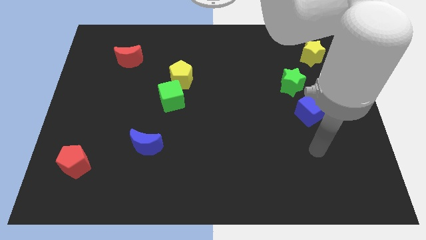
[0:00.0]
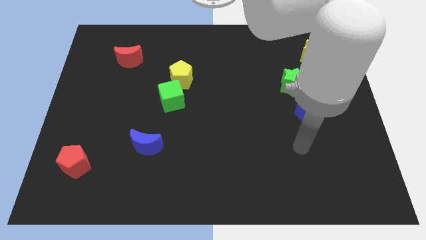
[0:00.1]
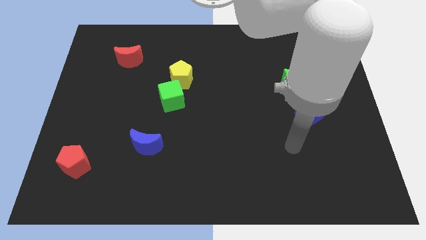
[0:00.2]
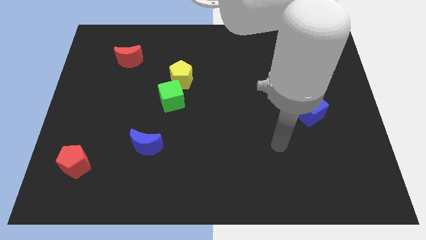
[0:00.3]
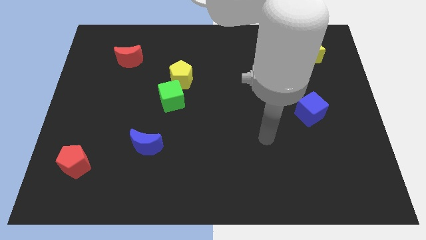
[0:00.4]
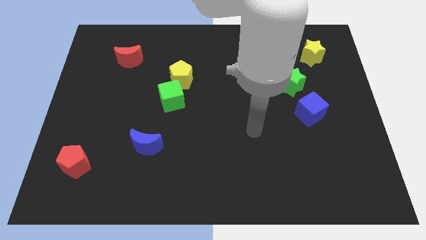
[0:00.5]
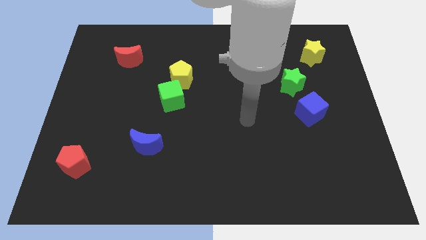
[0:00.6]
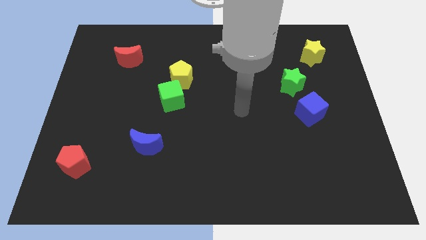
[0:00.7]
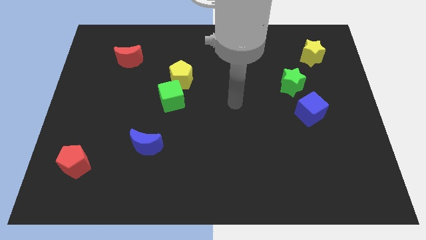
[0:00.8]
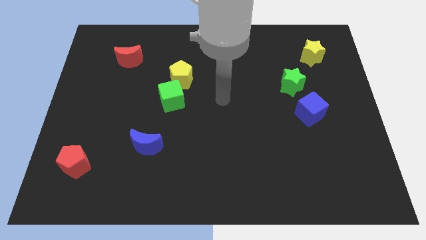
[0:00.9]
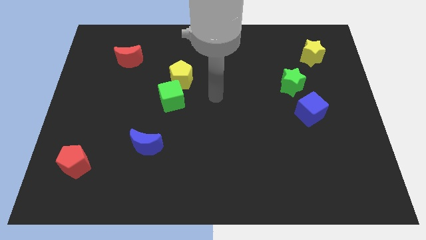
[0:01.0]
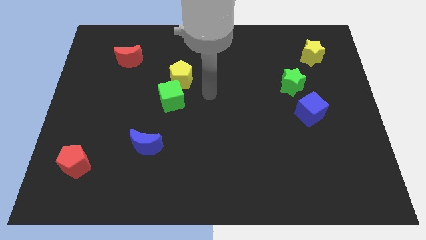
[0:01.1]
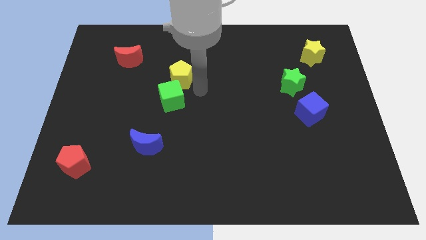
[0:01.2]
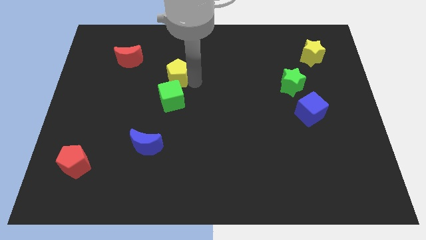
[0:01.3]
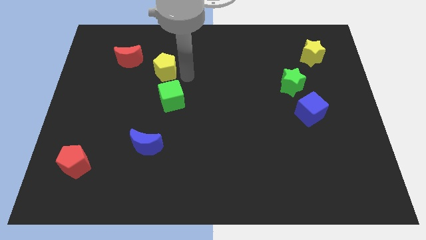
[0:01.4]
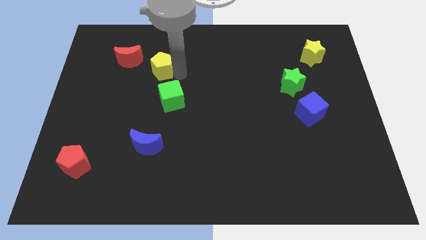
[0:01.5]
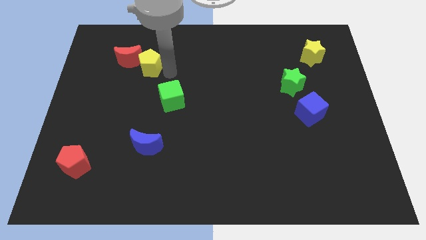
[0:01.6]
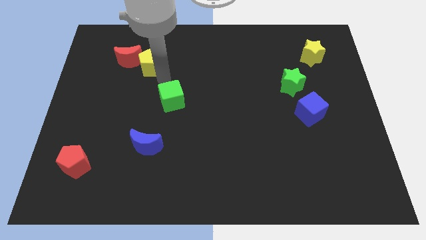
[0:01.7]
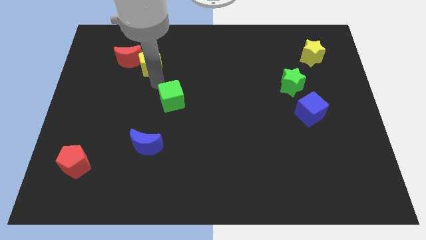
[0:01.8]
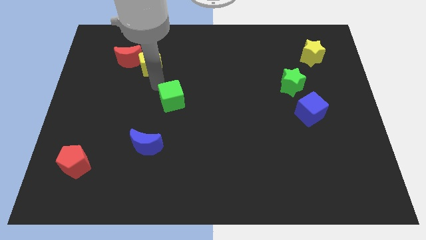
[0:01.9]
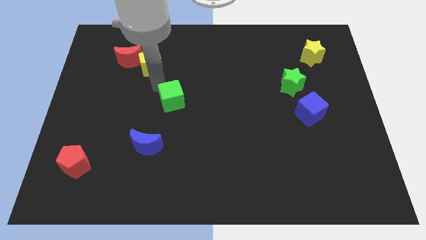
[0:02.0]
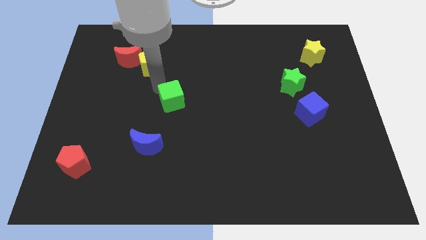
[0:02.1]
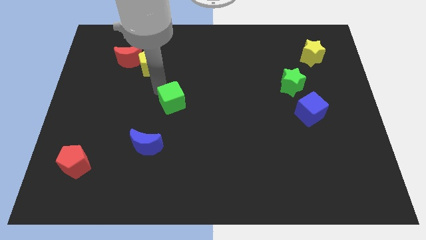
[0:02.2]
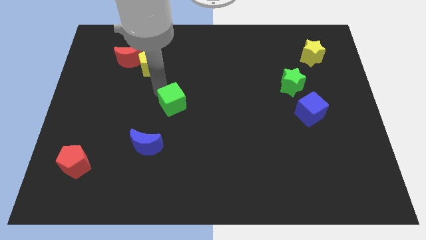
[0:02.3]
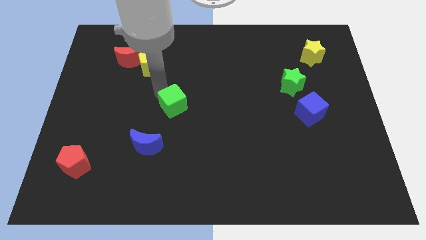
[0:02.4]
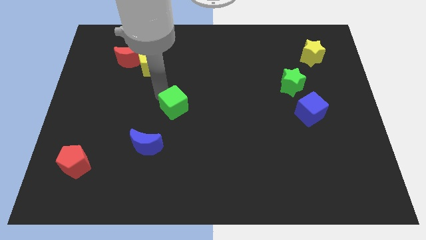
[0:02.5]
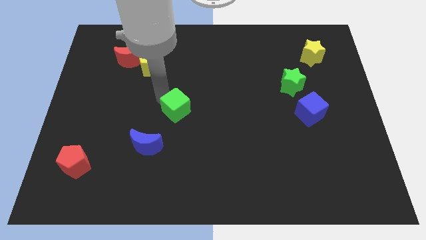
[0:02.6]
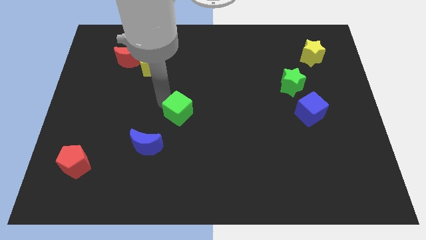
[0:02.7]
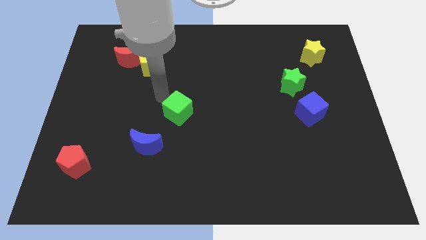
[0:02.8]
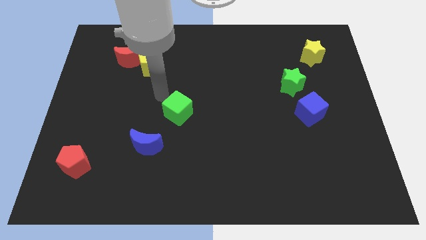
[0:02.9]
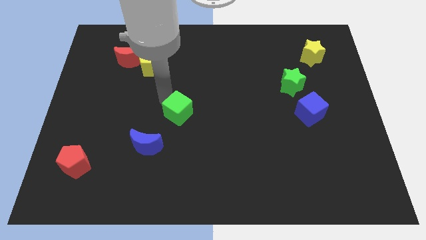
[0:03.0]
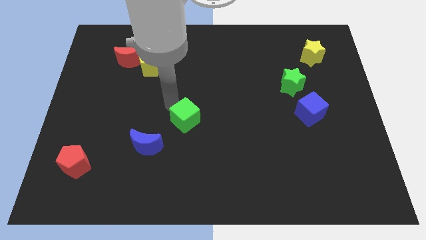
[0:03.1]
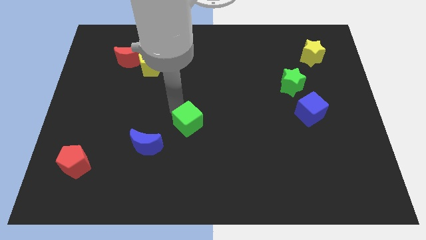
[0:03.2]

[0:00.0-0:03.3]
move the green cube a bit downwards and to the right diagonally

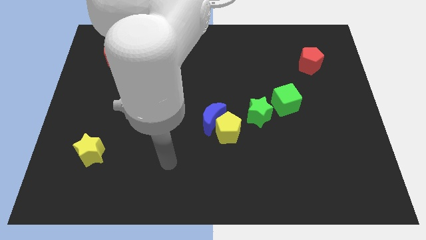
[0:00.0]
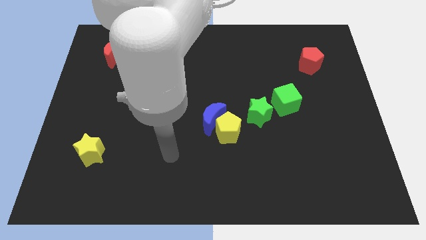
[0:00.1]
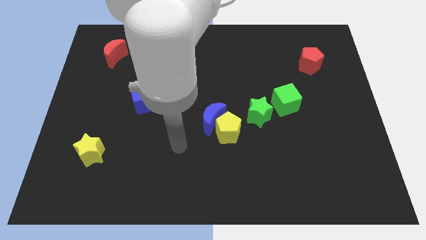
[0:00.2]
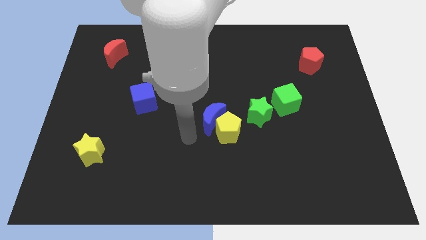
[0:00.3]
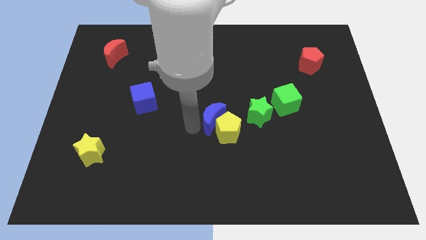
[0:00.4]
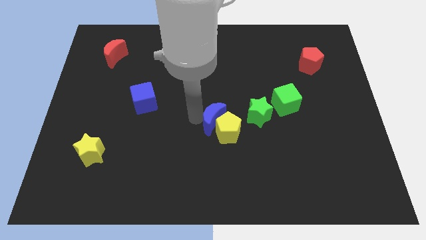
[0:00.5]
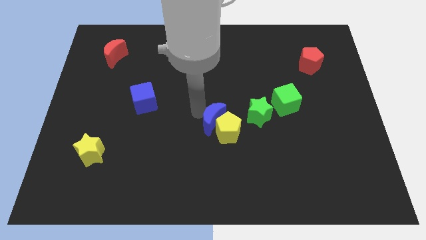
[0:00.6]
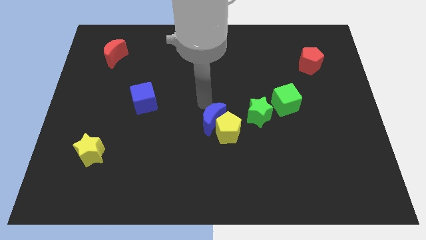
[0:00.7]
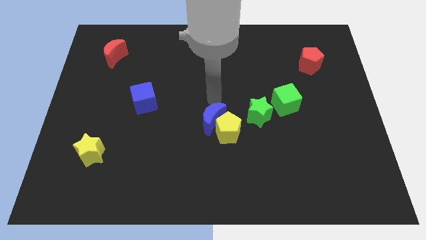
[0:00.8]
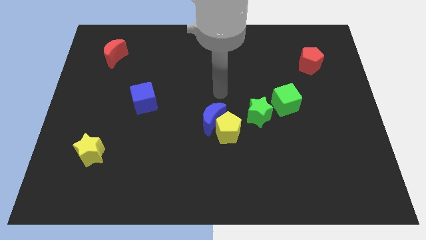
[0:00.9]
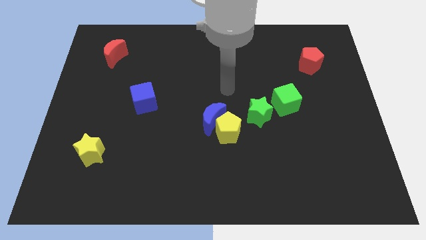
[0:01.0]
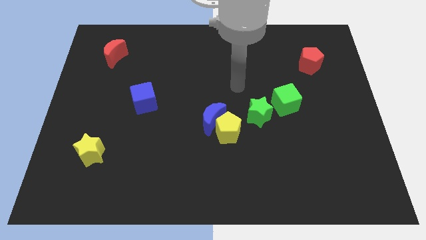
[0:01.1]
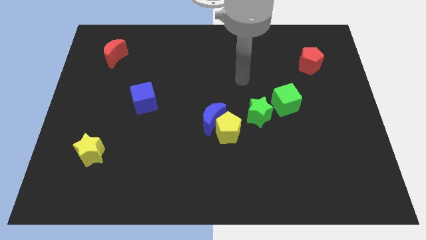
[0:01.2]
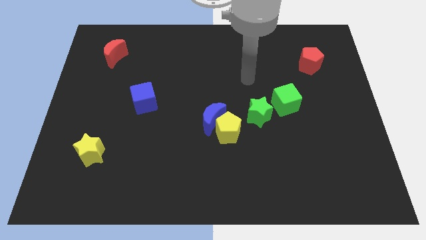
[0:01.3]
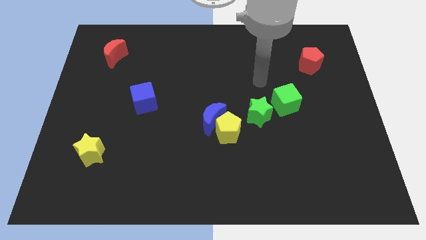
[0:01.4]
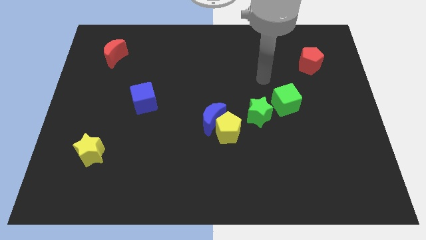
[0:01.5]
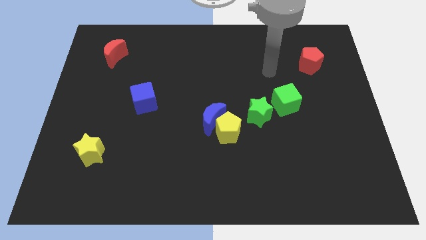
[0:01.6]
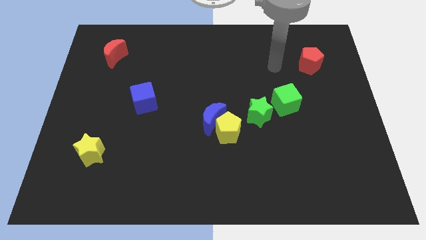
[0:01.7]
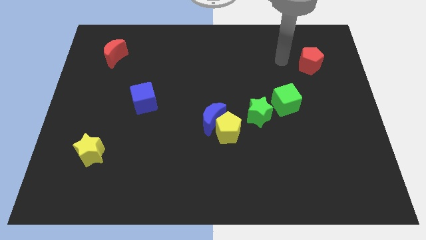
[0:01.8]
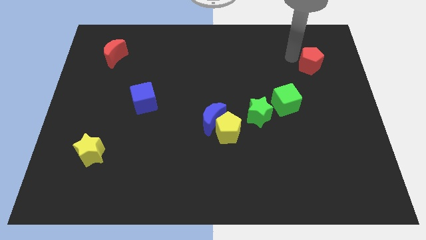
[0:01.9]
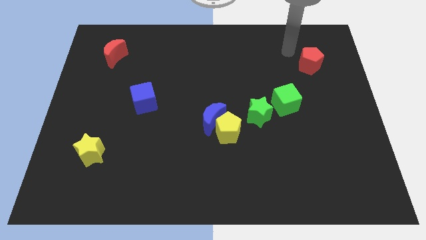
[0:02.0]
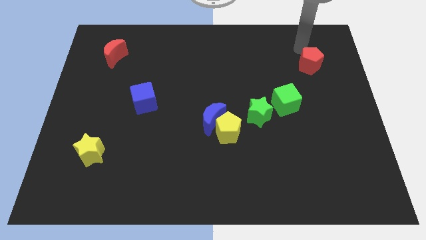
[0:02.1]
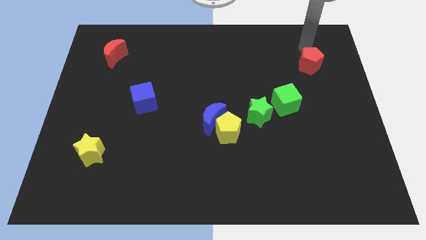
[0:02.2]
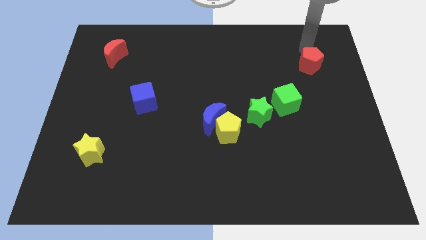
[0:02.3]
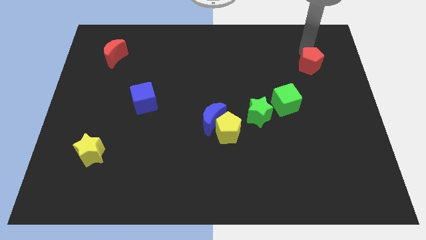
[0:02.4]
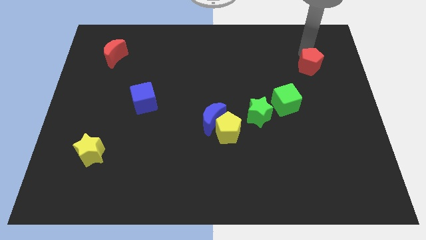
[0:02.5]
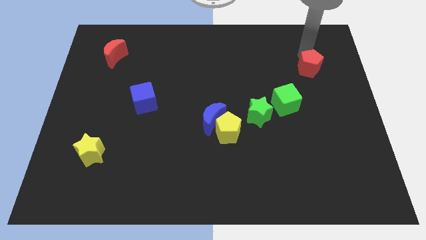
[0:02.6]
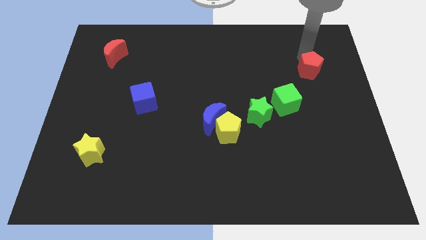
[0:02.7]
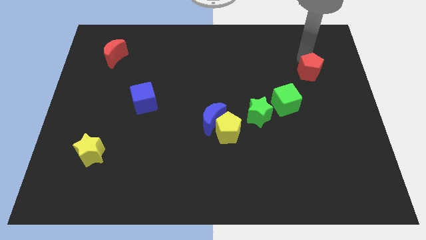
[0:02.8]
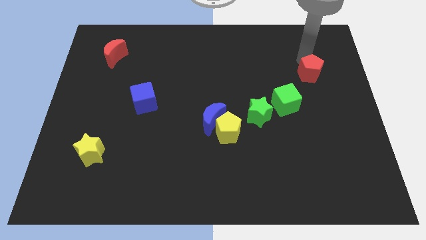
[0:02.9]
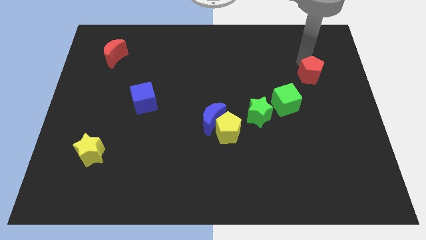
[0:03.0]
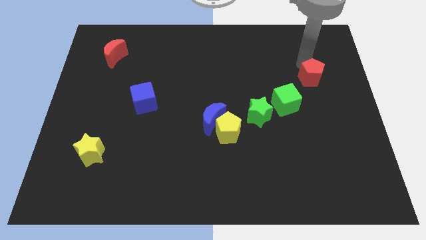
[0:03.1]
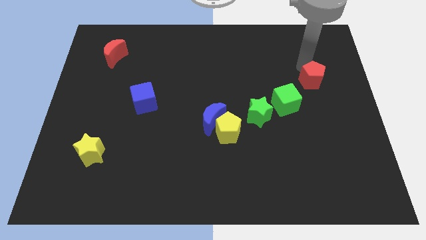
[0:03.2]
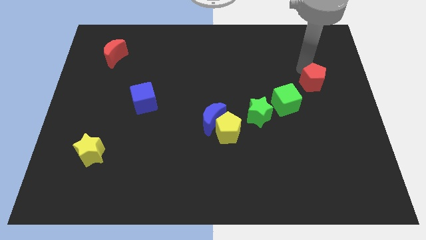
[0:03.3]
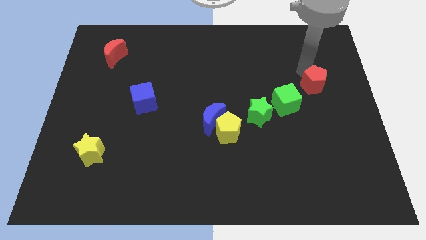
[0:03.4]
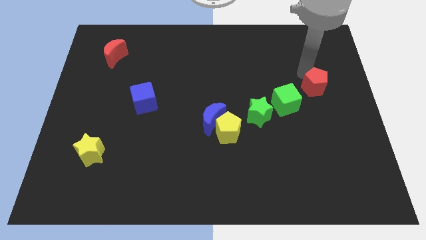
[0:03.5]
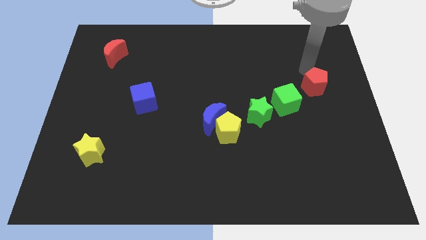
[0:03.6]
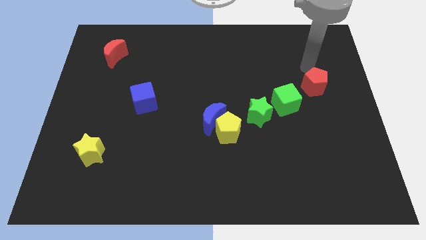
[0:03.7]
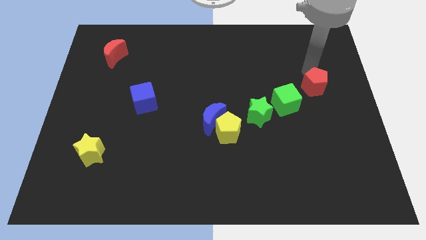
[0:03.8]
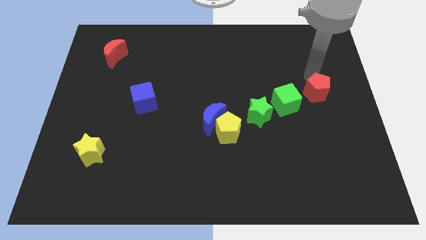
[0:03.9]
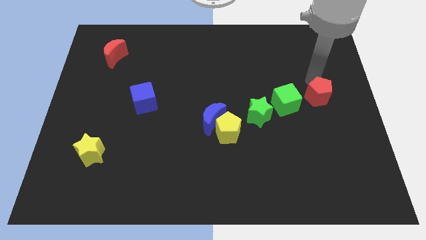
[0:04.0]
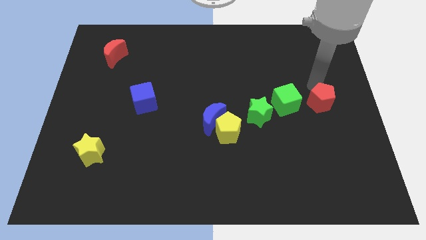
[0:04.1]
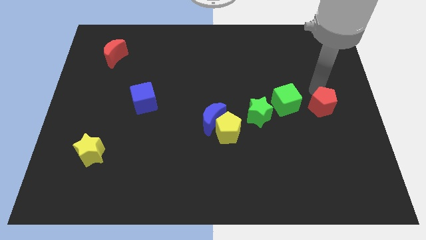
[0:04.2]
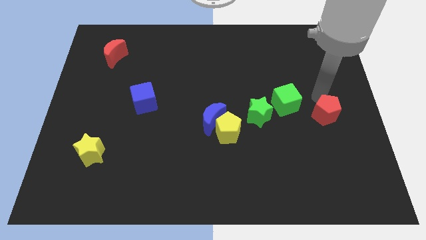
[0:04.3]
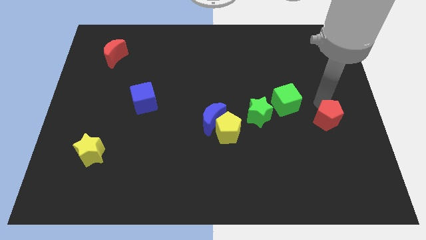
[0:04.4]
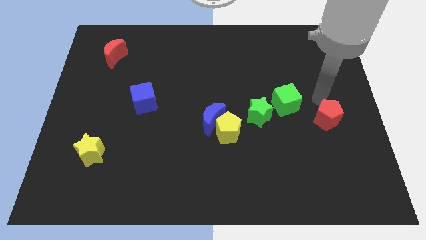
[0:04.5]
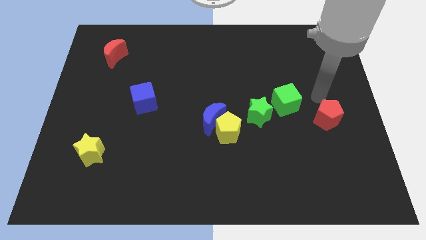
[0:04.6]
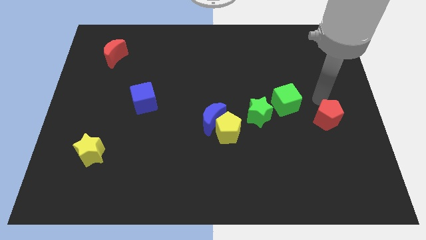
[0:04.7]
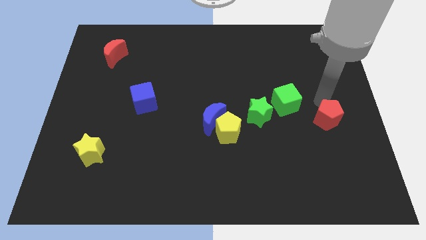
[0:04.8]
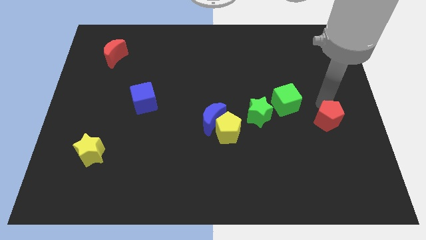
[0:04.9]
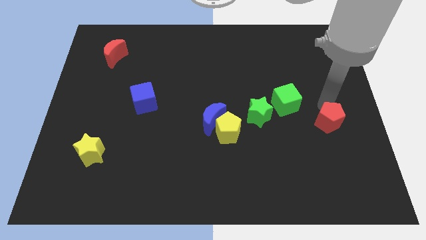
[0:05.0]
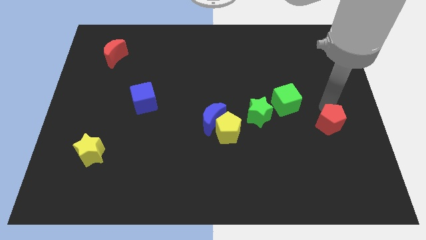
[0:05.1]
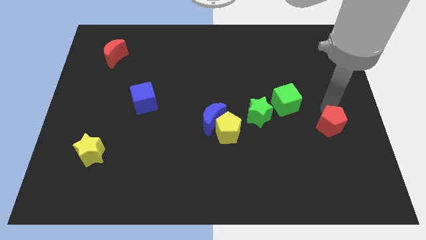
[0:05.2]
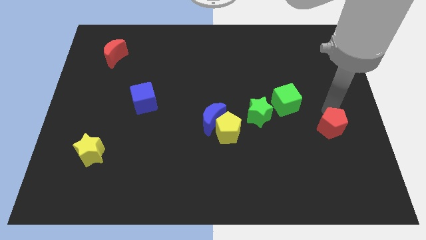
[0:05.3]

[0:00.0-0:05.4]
push the red pentagon down
